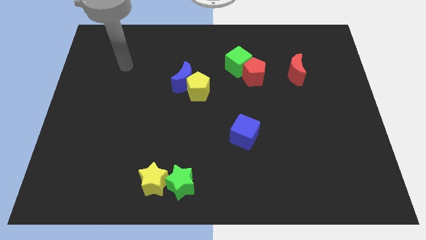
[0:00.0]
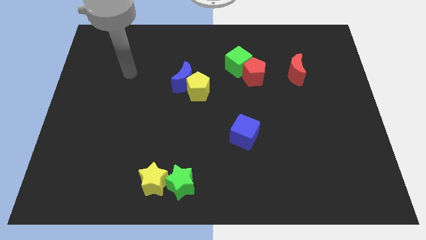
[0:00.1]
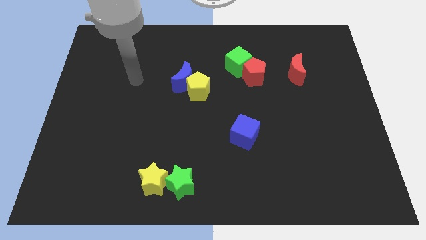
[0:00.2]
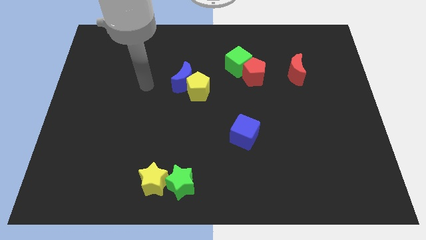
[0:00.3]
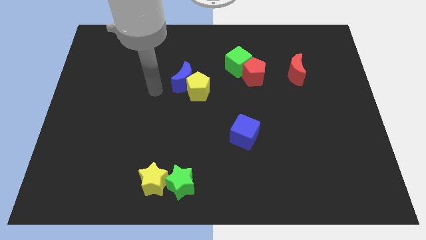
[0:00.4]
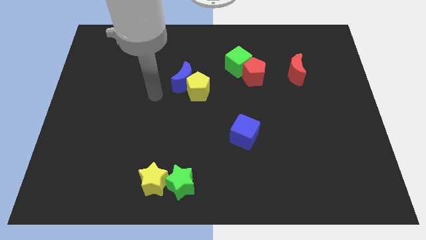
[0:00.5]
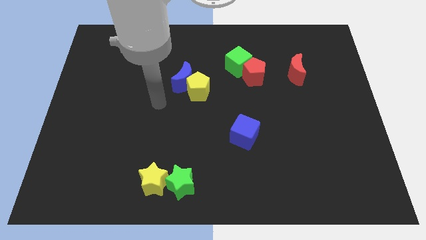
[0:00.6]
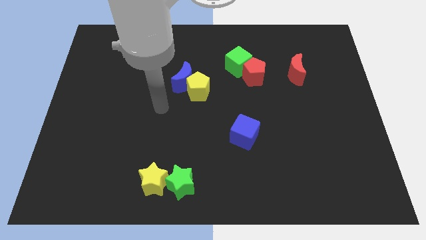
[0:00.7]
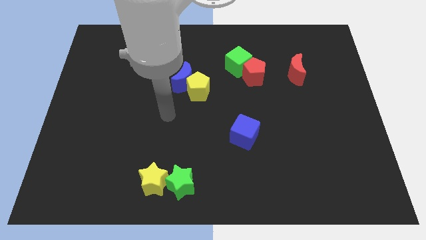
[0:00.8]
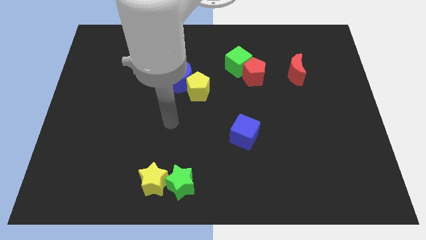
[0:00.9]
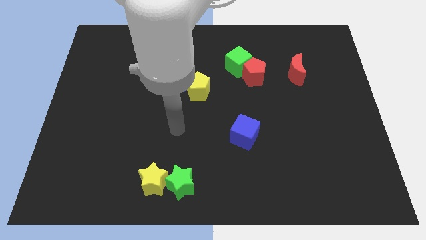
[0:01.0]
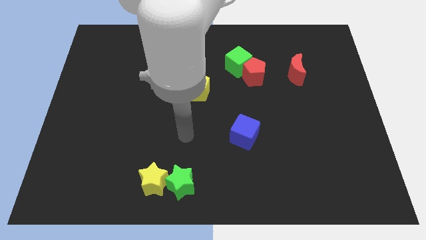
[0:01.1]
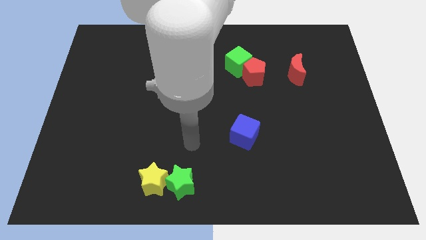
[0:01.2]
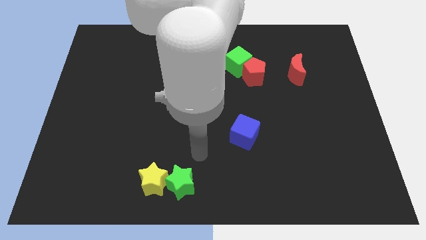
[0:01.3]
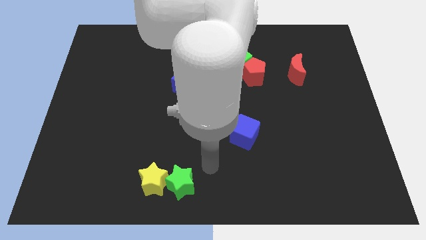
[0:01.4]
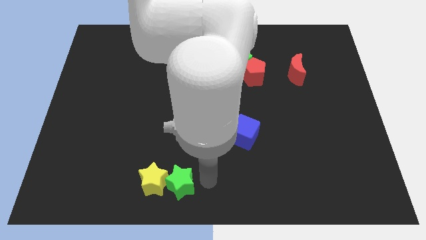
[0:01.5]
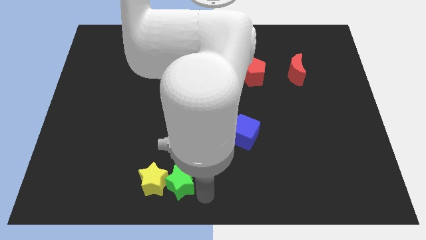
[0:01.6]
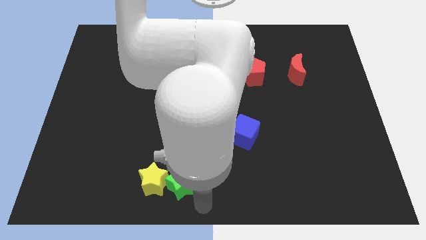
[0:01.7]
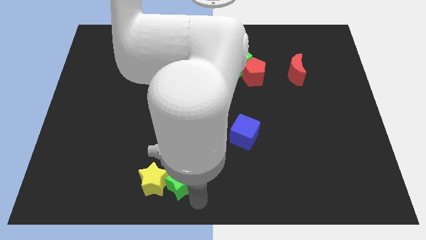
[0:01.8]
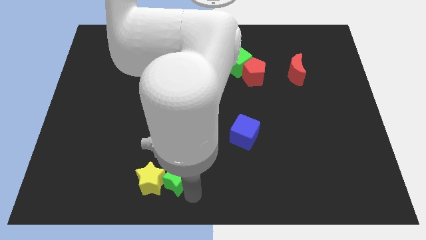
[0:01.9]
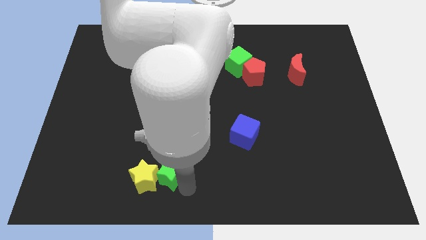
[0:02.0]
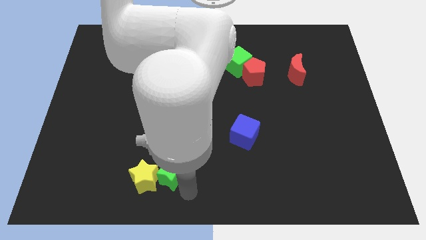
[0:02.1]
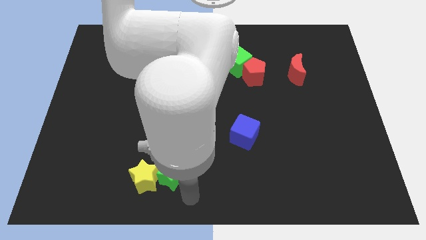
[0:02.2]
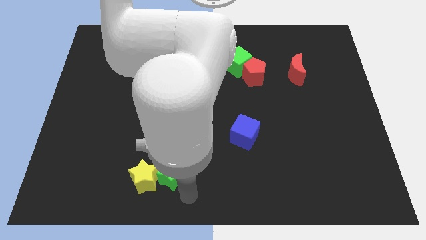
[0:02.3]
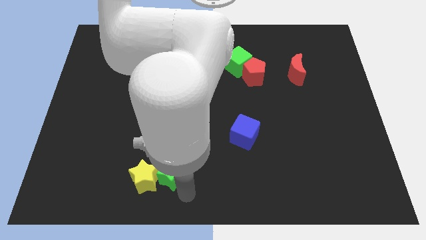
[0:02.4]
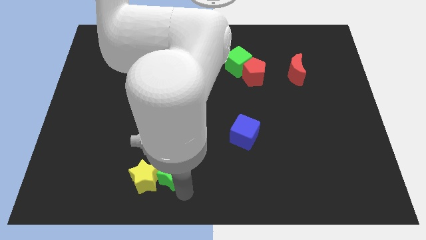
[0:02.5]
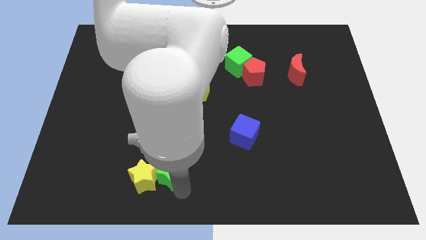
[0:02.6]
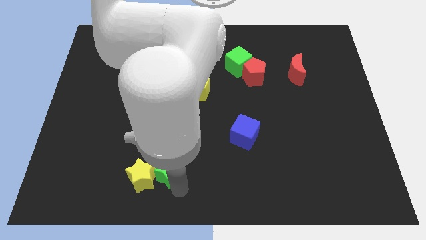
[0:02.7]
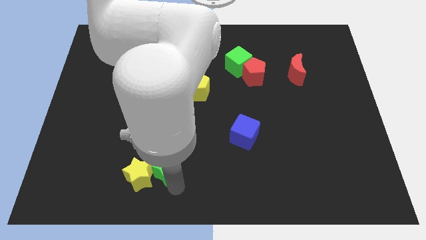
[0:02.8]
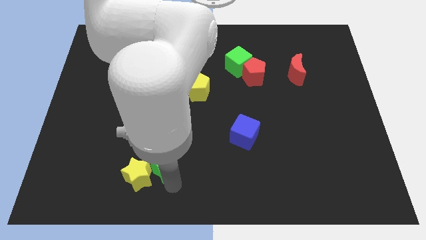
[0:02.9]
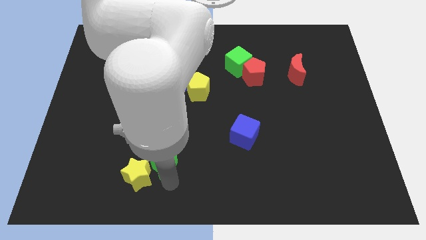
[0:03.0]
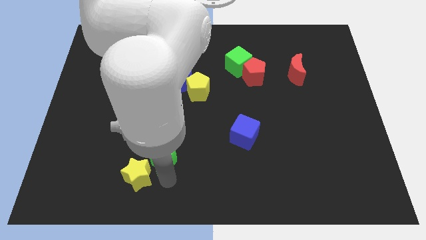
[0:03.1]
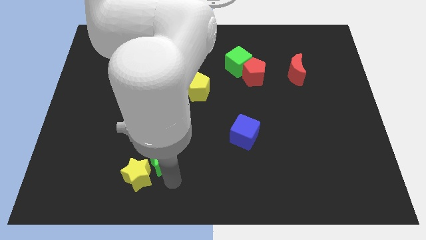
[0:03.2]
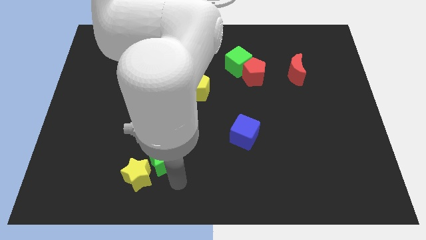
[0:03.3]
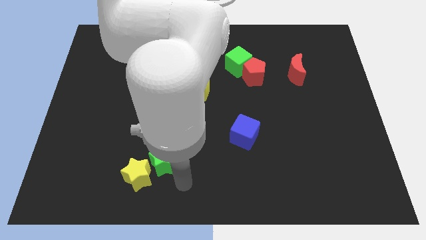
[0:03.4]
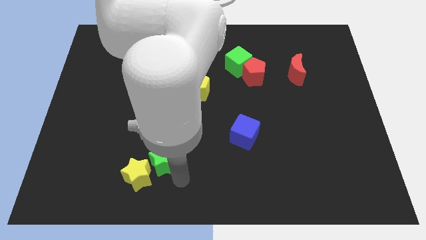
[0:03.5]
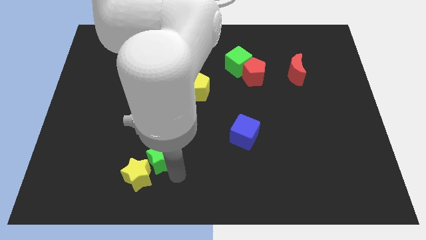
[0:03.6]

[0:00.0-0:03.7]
push the green star a bit upwards and then left

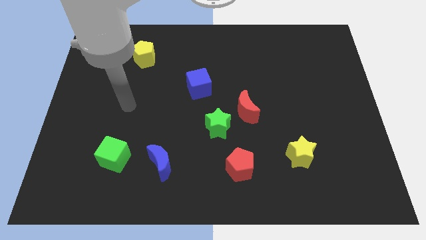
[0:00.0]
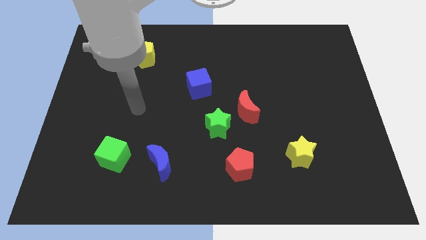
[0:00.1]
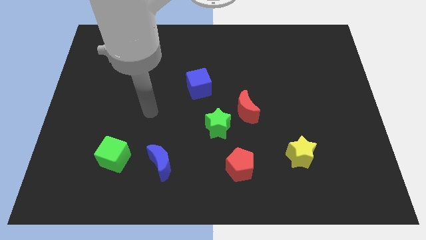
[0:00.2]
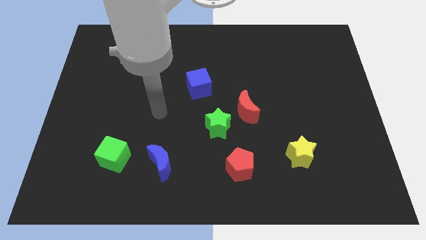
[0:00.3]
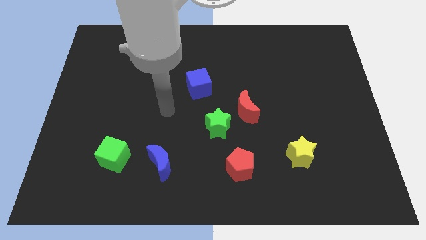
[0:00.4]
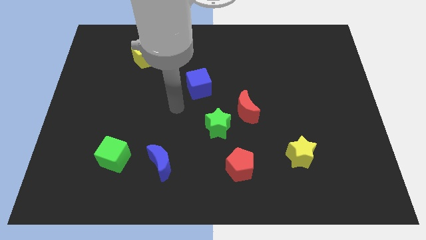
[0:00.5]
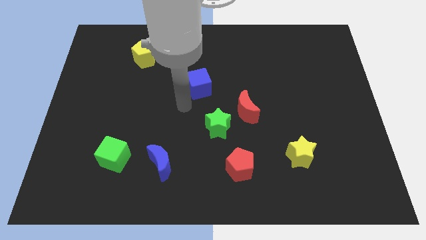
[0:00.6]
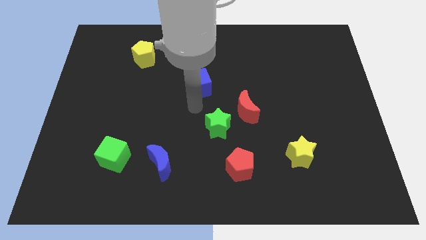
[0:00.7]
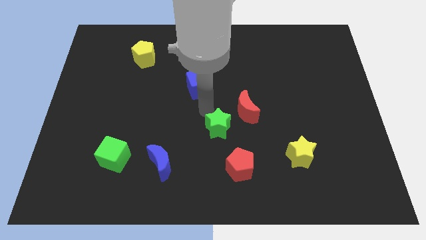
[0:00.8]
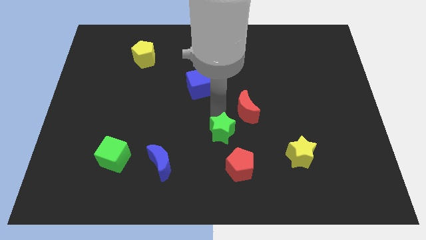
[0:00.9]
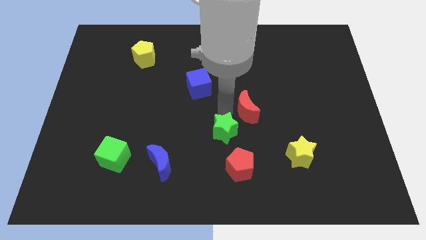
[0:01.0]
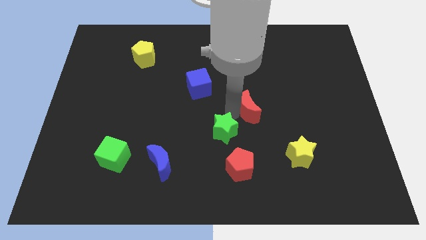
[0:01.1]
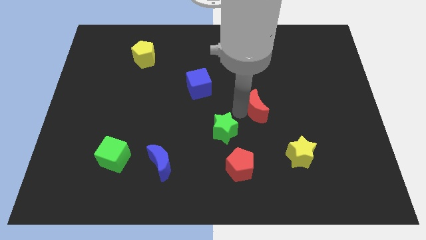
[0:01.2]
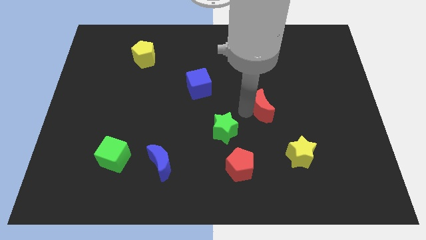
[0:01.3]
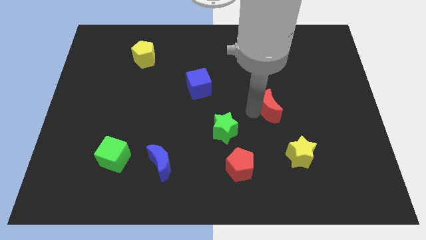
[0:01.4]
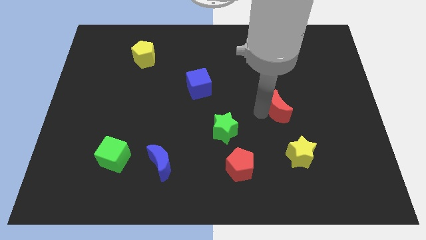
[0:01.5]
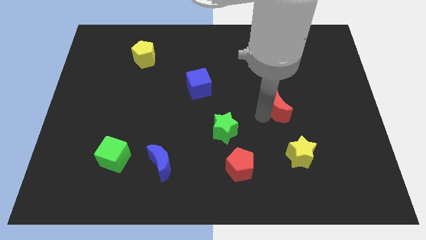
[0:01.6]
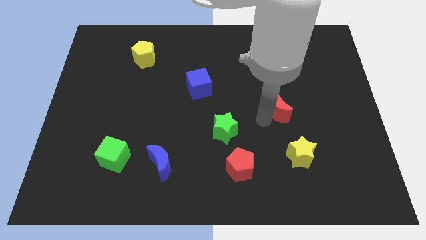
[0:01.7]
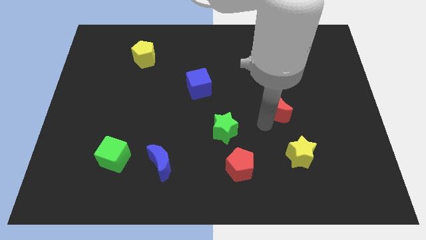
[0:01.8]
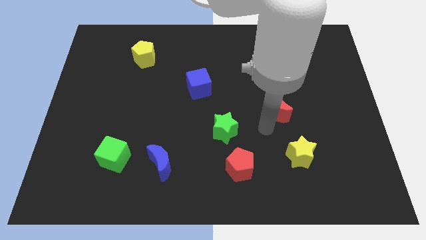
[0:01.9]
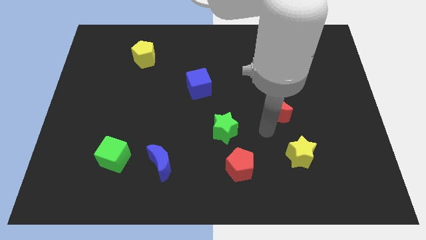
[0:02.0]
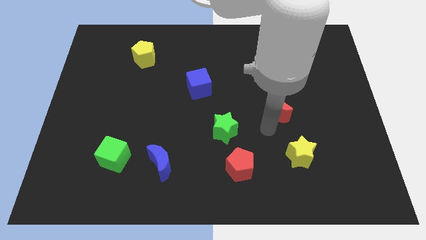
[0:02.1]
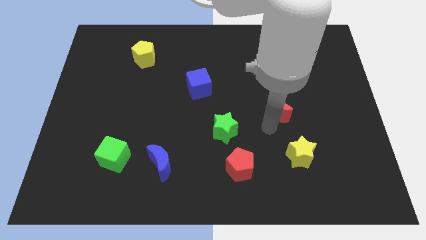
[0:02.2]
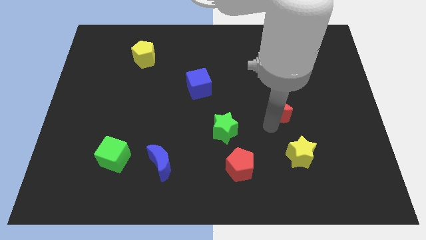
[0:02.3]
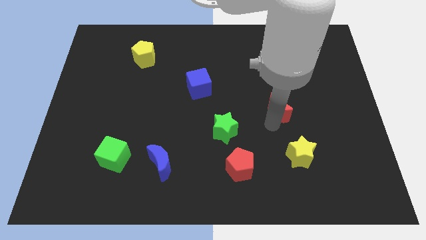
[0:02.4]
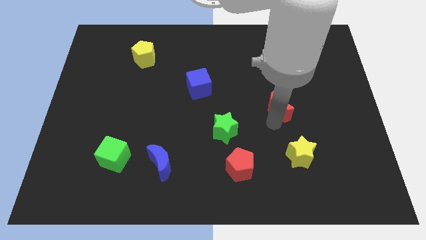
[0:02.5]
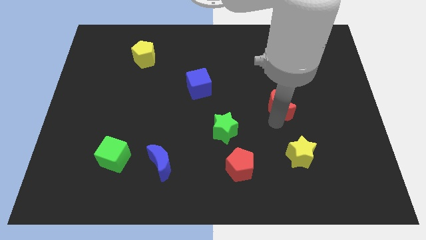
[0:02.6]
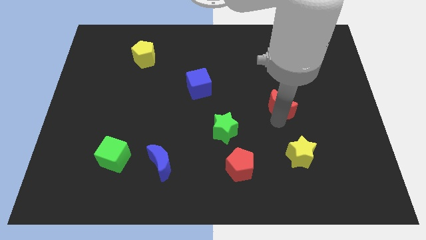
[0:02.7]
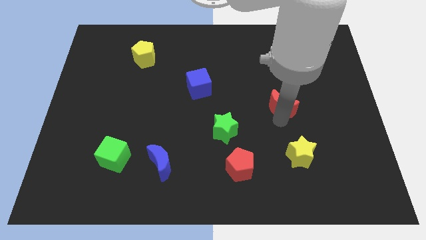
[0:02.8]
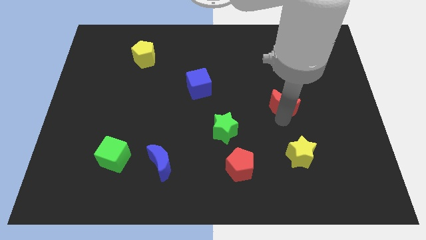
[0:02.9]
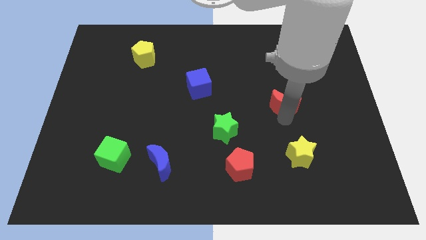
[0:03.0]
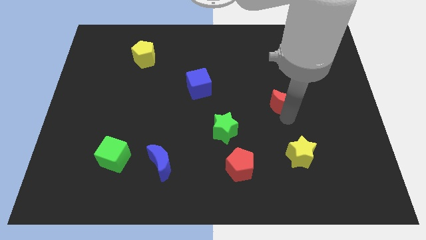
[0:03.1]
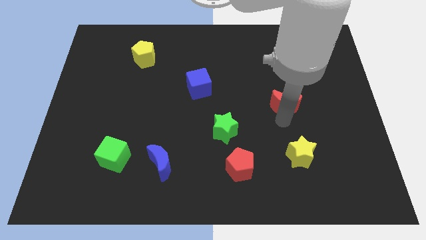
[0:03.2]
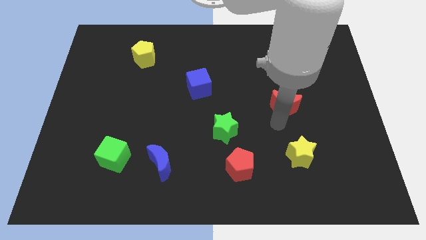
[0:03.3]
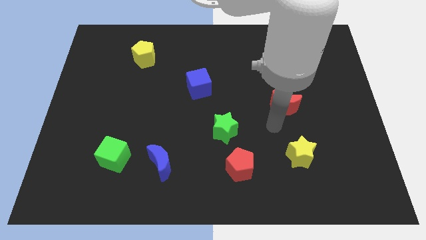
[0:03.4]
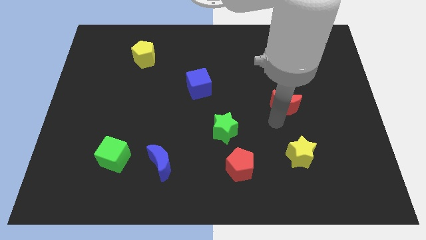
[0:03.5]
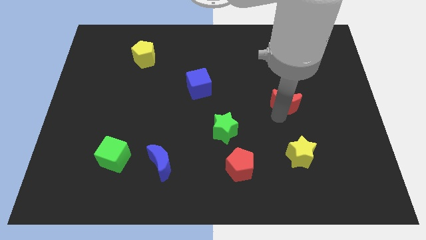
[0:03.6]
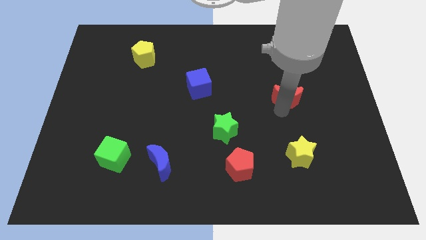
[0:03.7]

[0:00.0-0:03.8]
push the red moon upwards and then to the right slightly

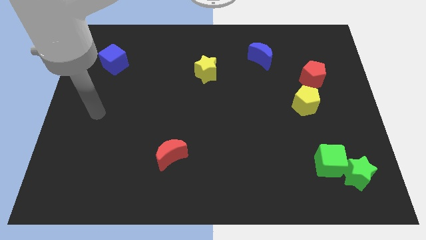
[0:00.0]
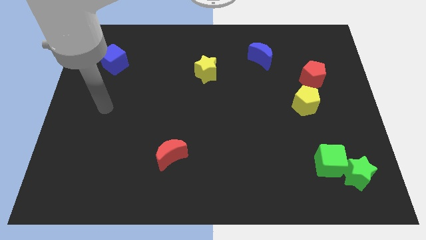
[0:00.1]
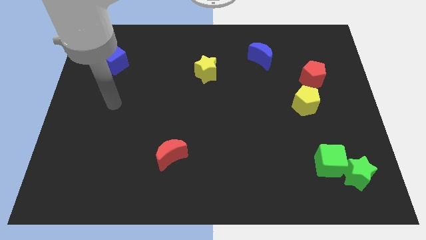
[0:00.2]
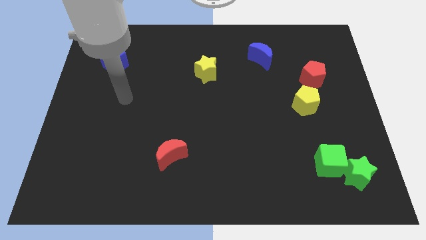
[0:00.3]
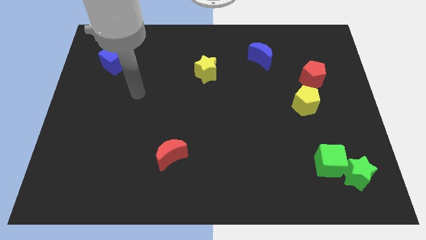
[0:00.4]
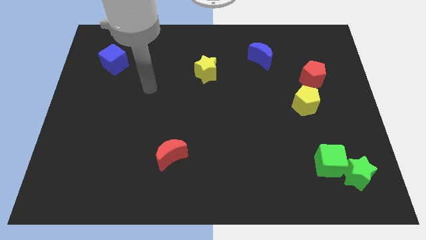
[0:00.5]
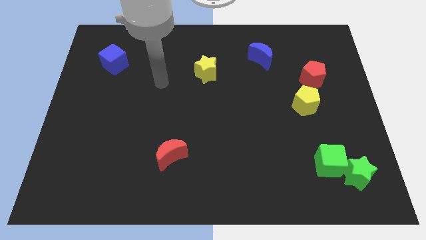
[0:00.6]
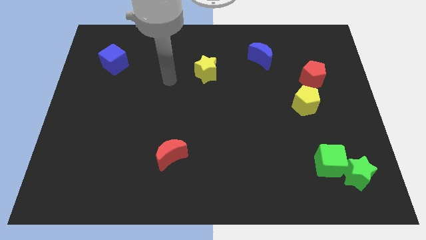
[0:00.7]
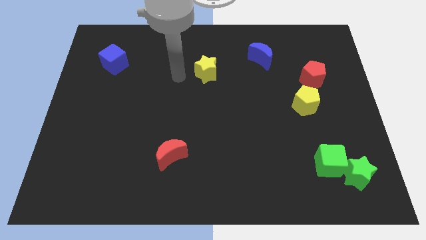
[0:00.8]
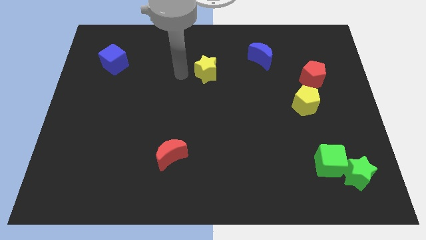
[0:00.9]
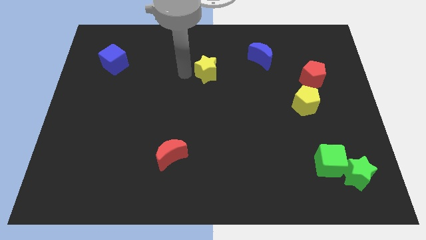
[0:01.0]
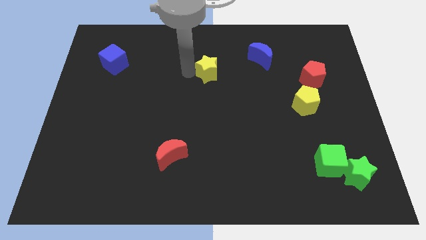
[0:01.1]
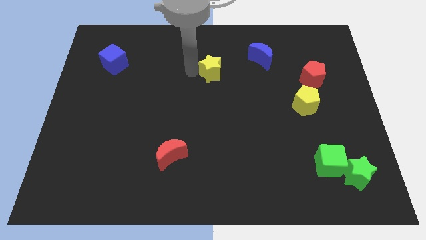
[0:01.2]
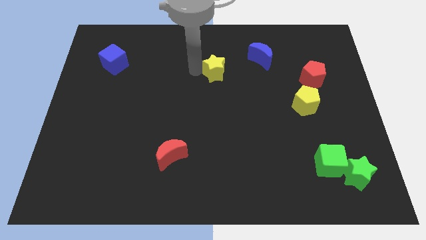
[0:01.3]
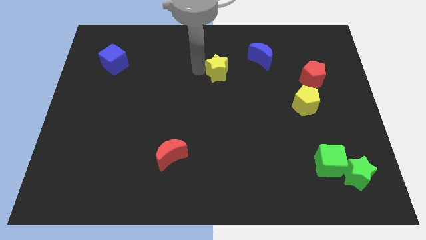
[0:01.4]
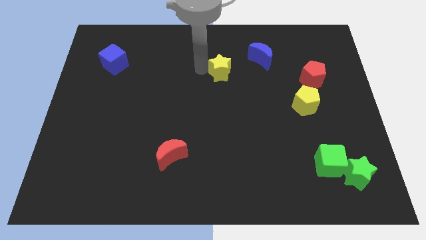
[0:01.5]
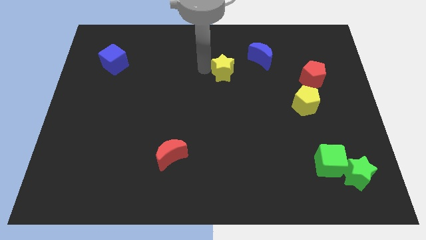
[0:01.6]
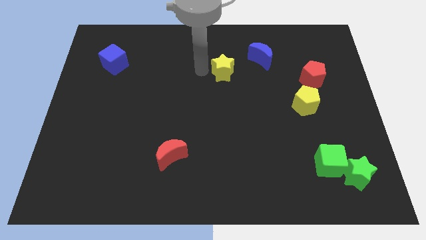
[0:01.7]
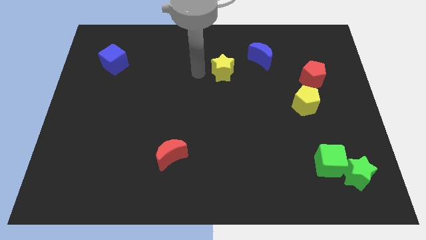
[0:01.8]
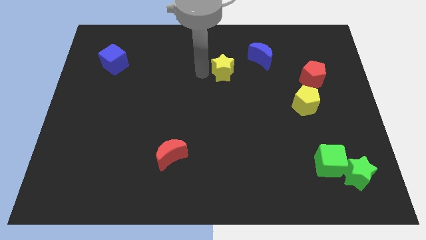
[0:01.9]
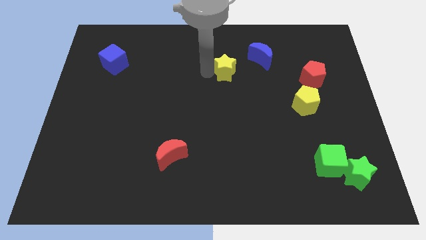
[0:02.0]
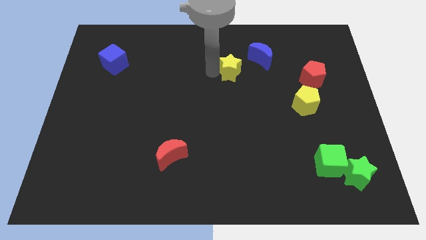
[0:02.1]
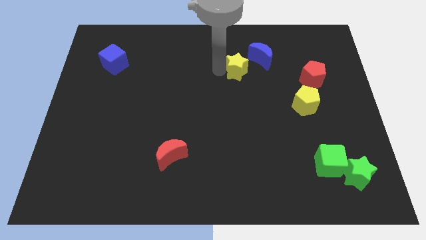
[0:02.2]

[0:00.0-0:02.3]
slightly slide the yellow star right
